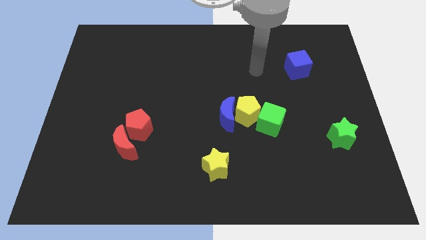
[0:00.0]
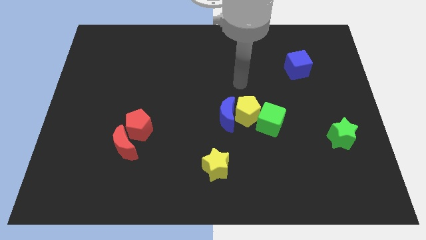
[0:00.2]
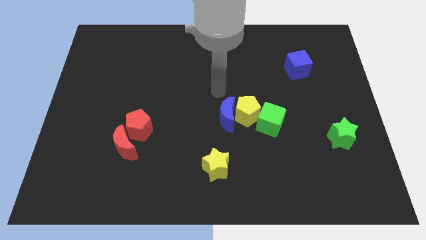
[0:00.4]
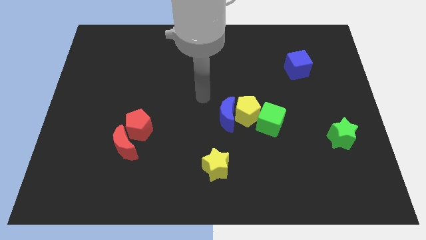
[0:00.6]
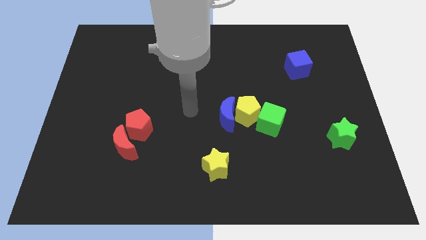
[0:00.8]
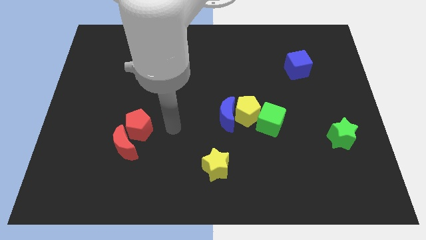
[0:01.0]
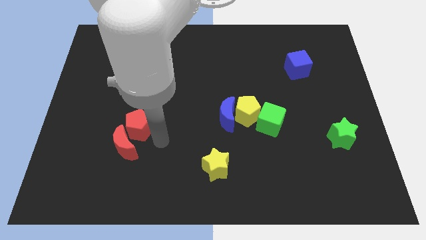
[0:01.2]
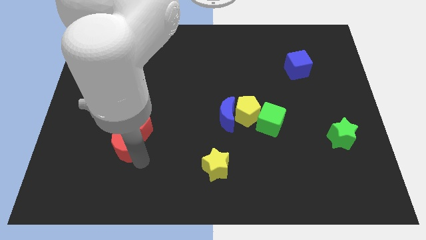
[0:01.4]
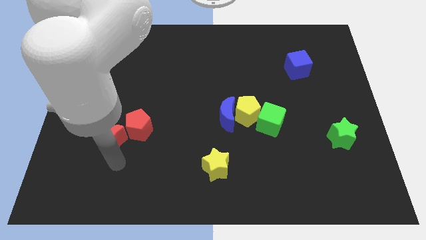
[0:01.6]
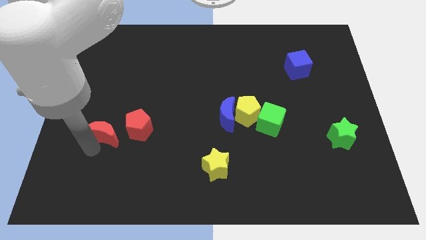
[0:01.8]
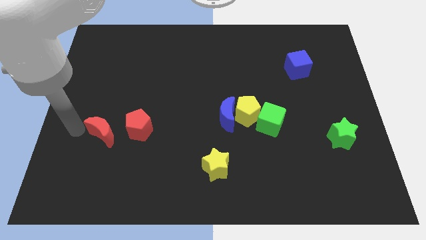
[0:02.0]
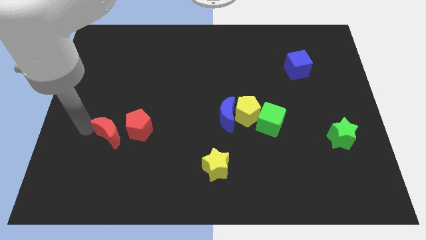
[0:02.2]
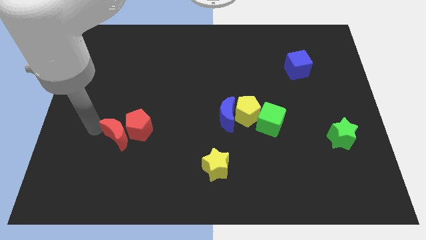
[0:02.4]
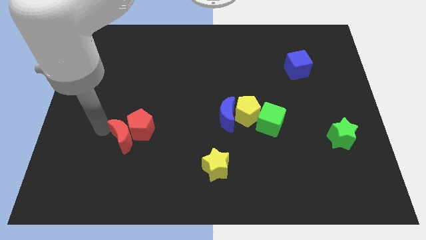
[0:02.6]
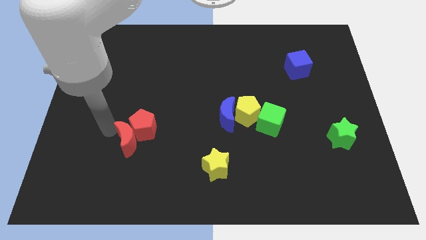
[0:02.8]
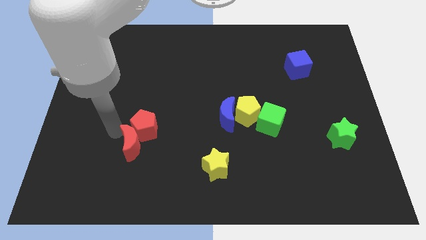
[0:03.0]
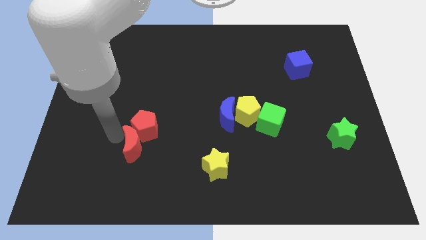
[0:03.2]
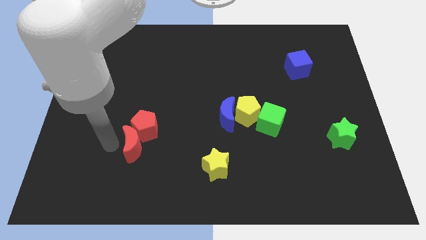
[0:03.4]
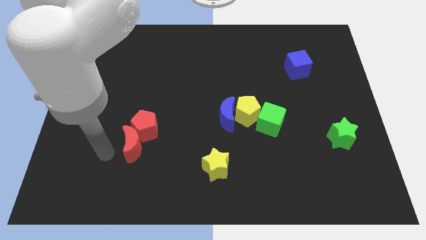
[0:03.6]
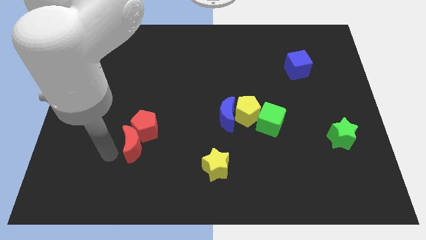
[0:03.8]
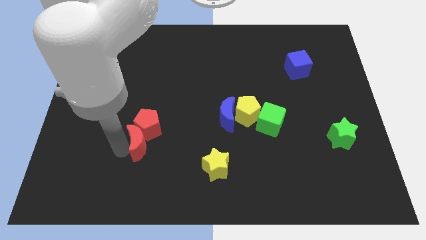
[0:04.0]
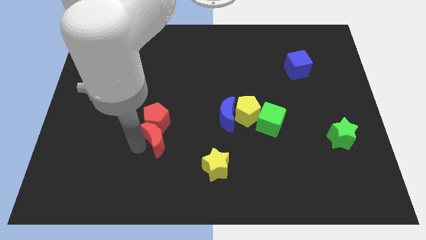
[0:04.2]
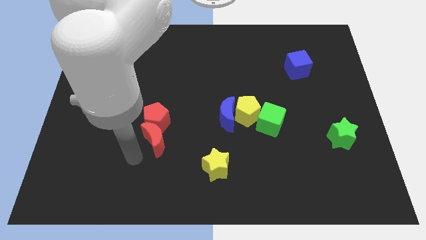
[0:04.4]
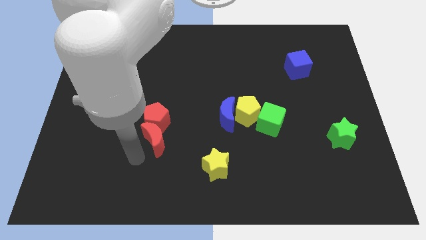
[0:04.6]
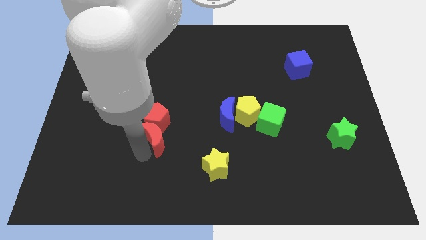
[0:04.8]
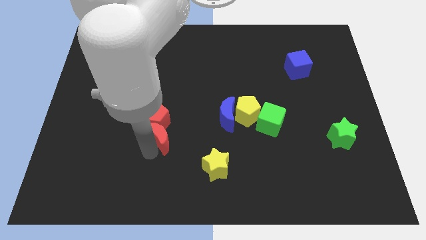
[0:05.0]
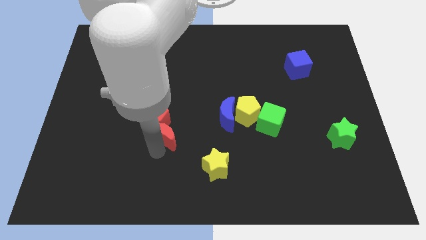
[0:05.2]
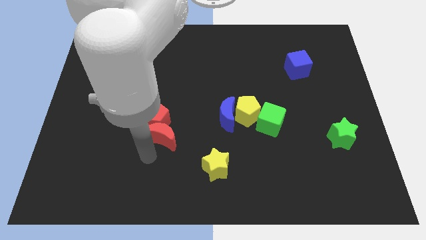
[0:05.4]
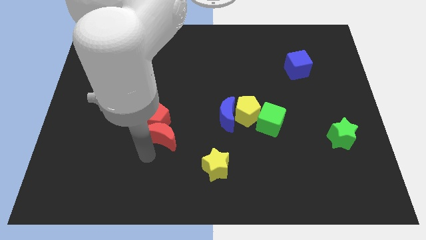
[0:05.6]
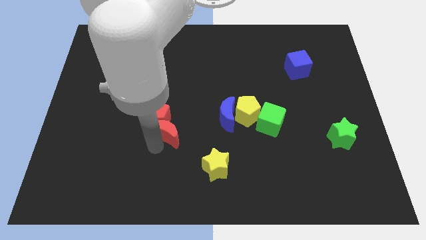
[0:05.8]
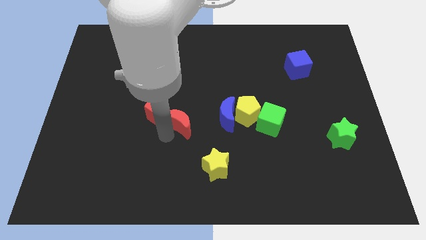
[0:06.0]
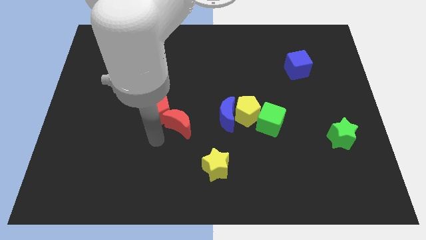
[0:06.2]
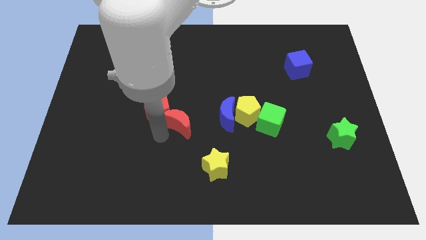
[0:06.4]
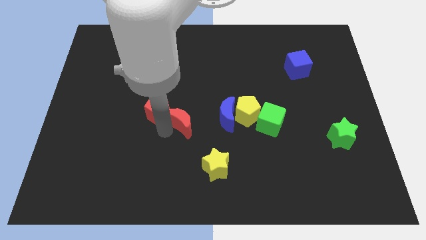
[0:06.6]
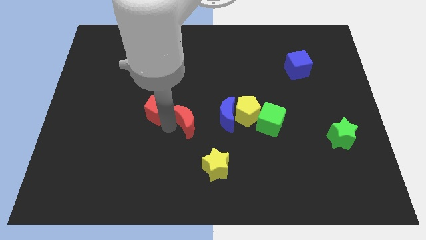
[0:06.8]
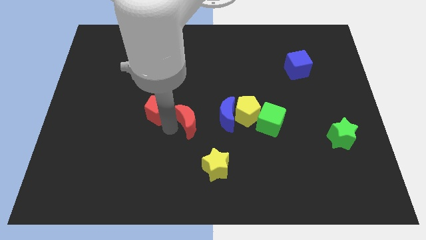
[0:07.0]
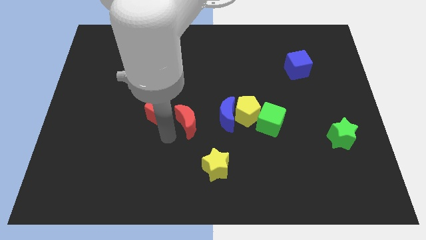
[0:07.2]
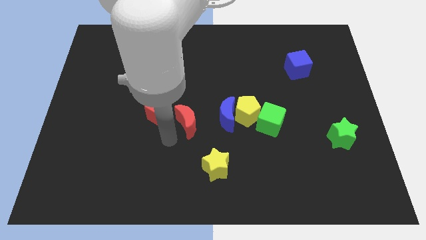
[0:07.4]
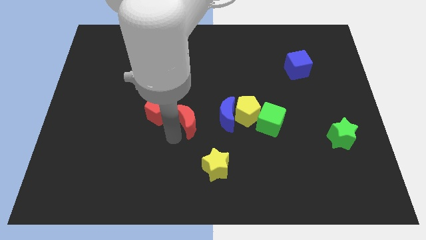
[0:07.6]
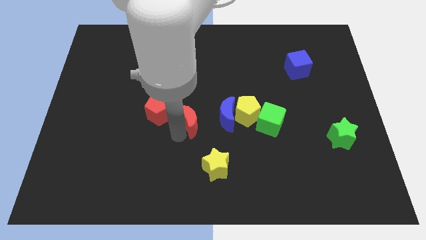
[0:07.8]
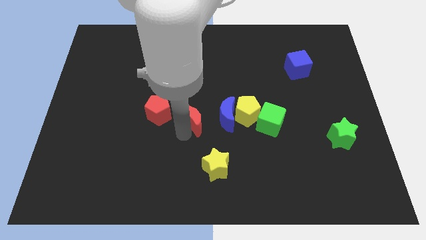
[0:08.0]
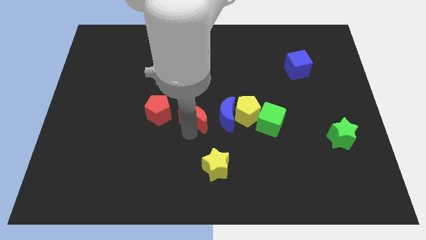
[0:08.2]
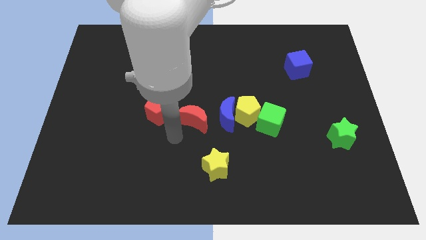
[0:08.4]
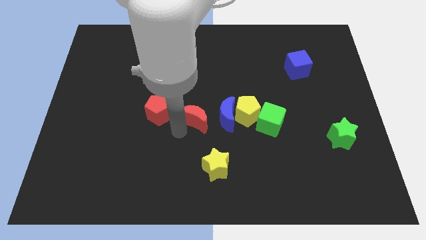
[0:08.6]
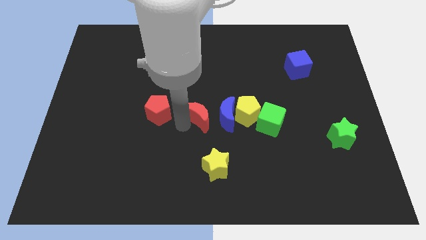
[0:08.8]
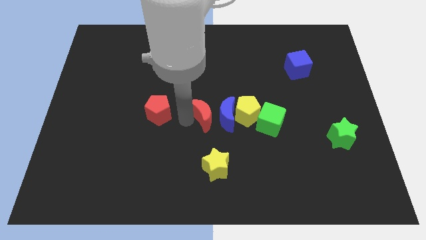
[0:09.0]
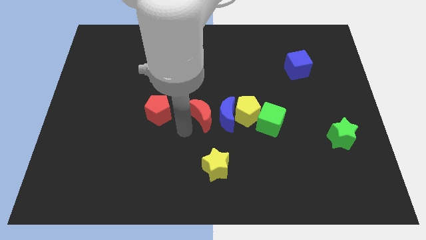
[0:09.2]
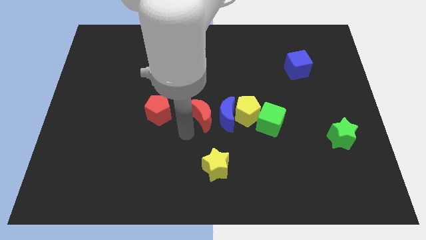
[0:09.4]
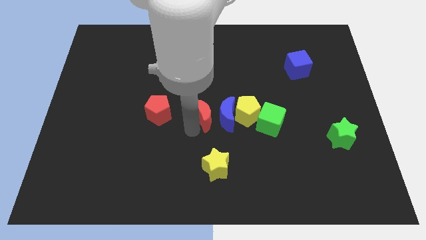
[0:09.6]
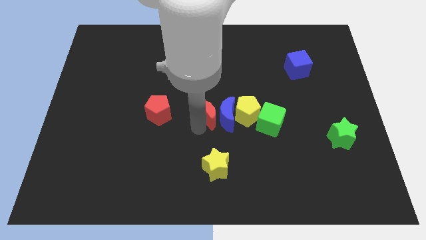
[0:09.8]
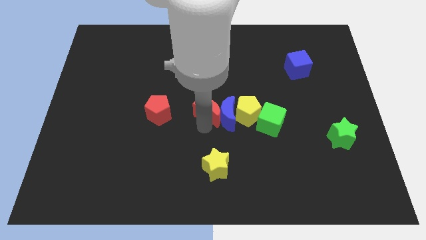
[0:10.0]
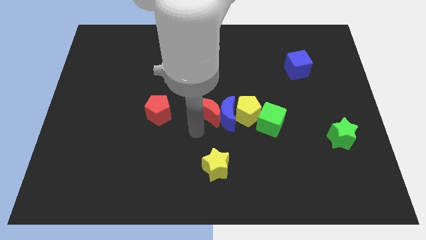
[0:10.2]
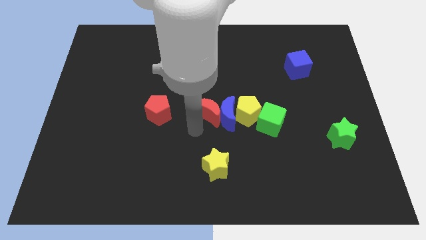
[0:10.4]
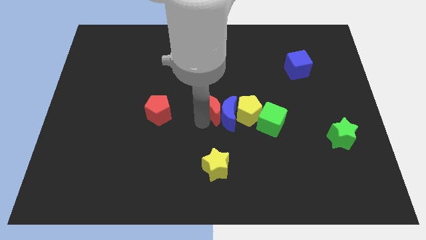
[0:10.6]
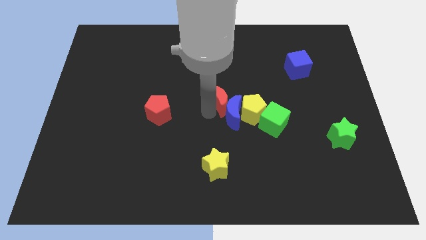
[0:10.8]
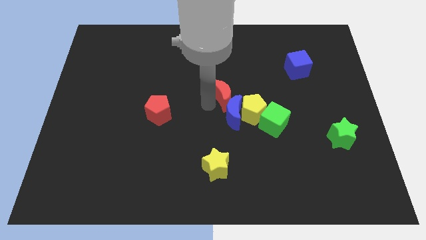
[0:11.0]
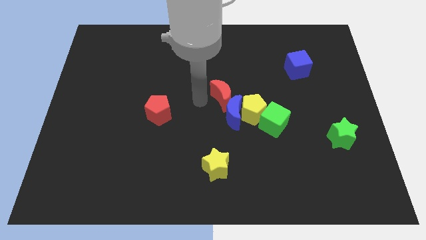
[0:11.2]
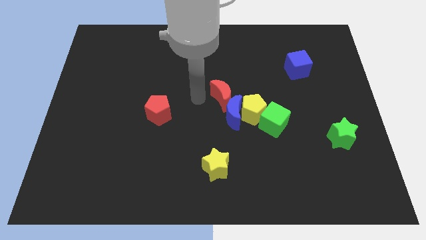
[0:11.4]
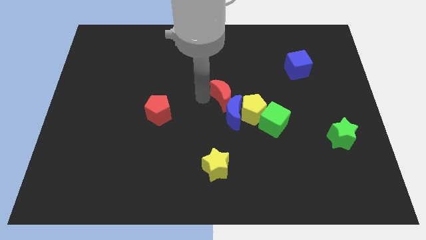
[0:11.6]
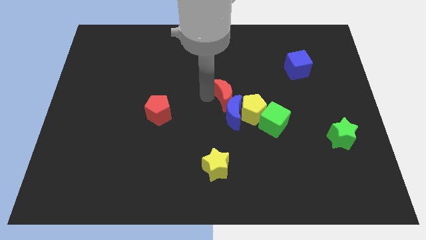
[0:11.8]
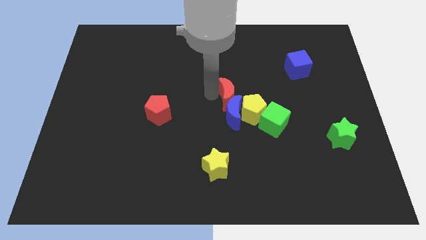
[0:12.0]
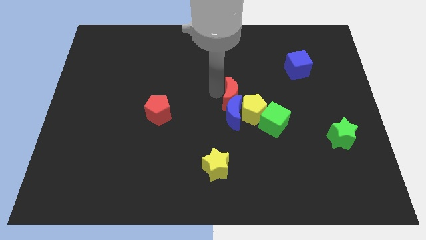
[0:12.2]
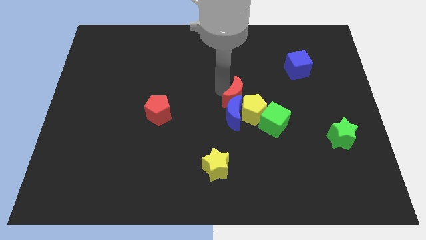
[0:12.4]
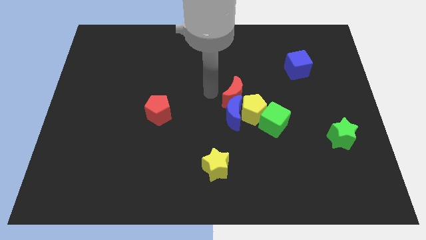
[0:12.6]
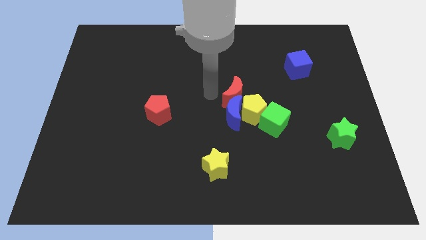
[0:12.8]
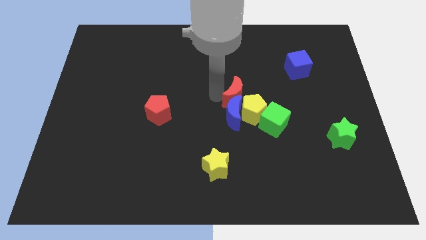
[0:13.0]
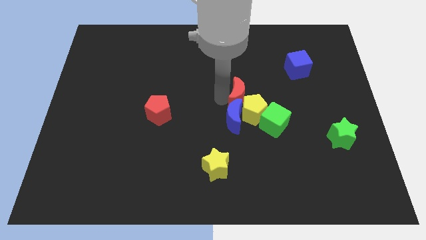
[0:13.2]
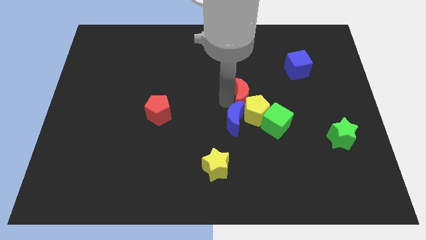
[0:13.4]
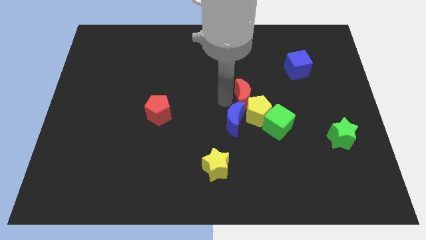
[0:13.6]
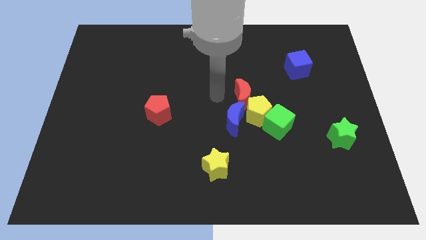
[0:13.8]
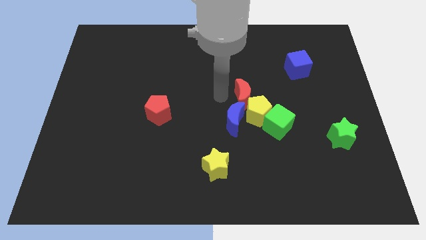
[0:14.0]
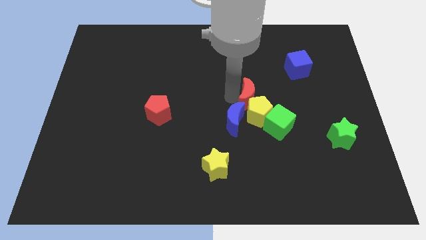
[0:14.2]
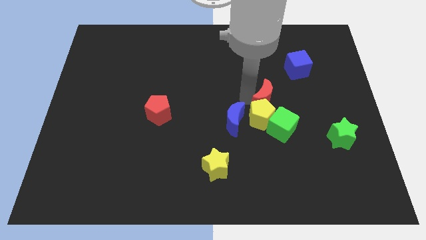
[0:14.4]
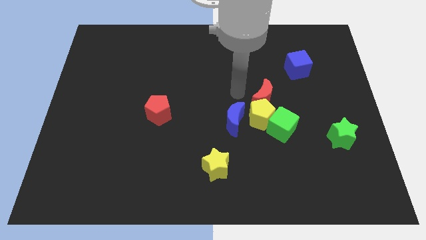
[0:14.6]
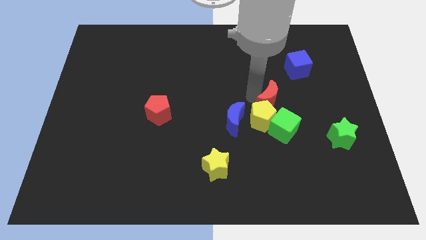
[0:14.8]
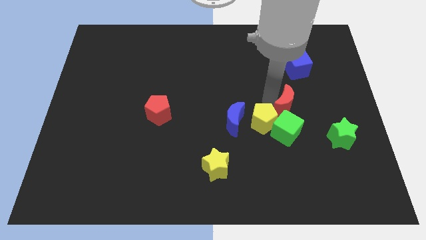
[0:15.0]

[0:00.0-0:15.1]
put the red moon diagonally up and to the right of the green cube
